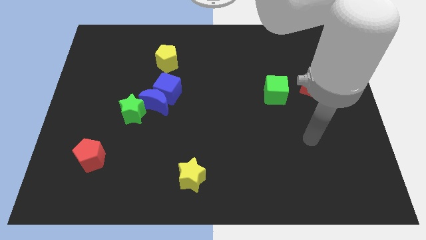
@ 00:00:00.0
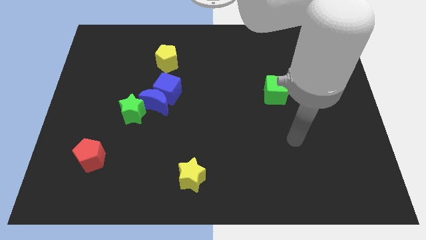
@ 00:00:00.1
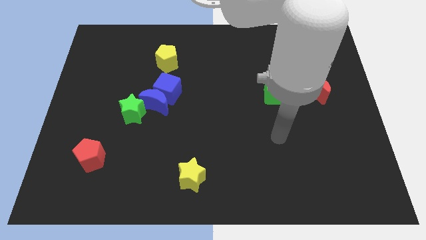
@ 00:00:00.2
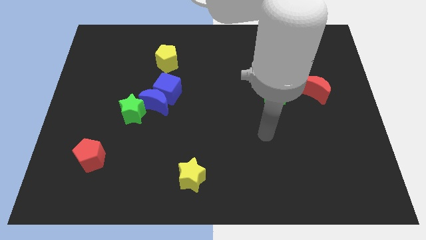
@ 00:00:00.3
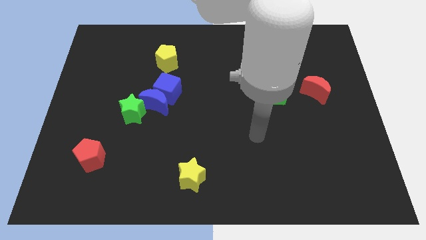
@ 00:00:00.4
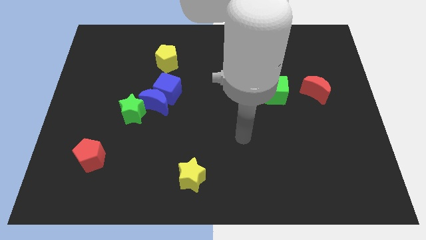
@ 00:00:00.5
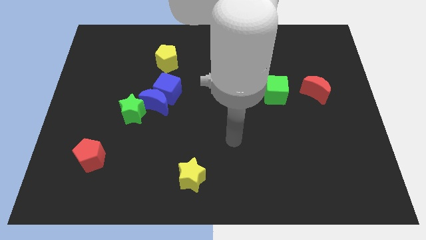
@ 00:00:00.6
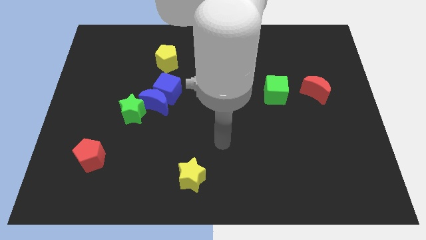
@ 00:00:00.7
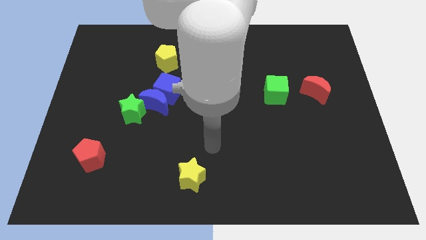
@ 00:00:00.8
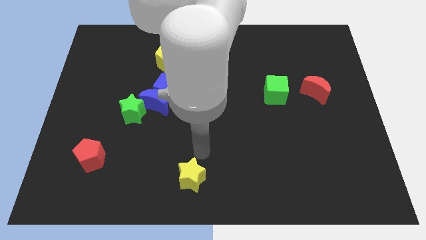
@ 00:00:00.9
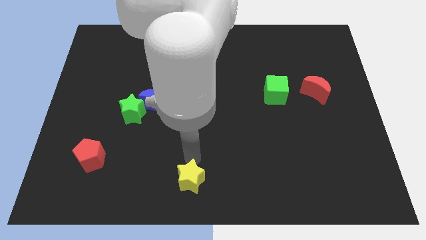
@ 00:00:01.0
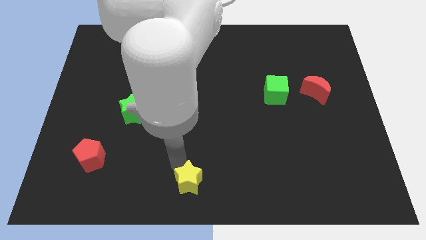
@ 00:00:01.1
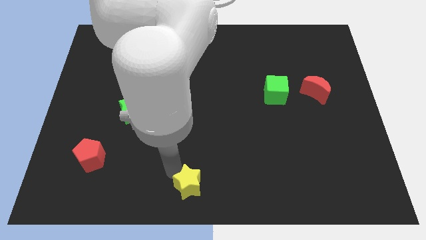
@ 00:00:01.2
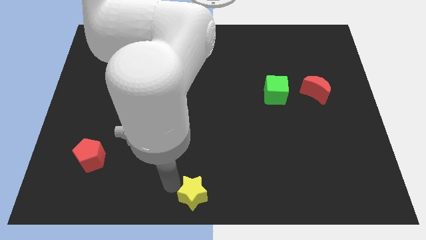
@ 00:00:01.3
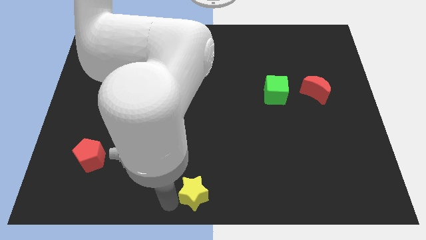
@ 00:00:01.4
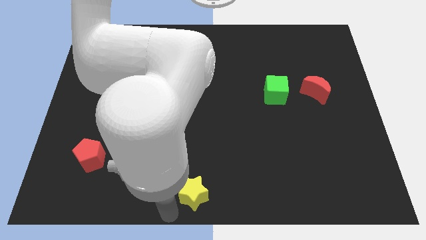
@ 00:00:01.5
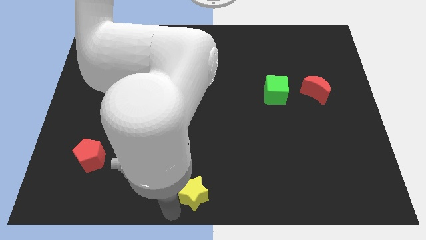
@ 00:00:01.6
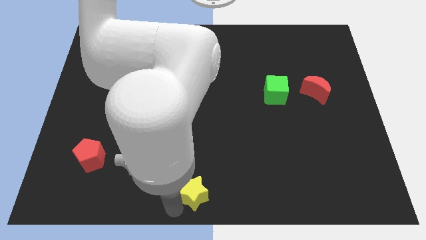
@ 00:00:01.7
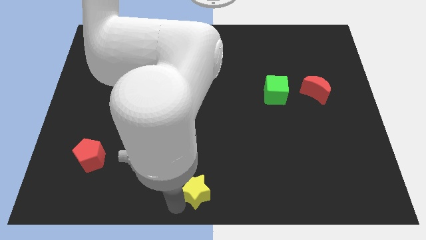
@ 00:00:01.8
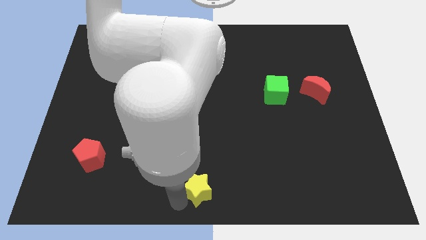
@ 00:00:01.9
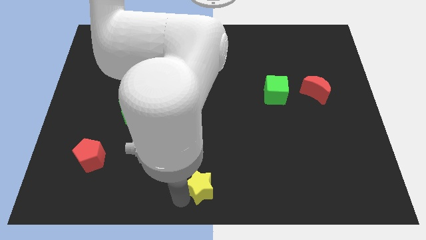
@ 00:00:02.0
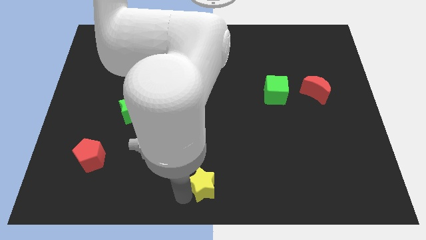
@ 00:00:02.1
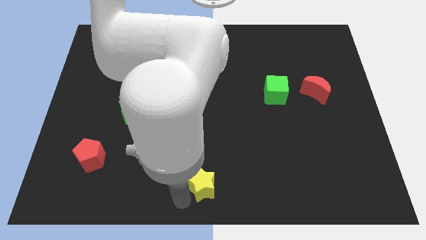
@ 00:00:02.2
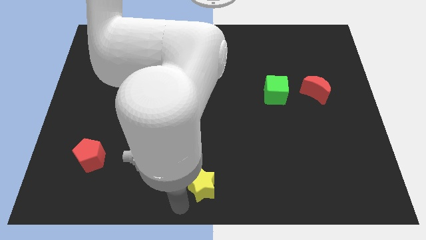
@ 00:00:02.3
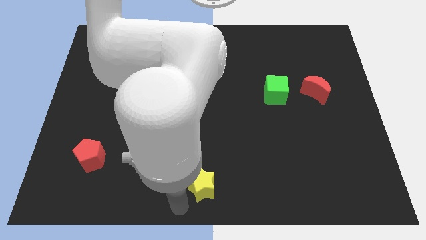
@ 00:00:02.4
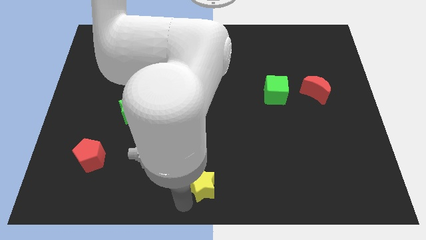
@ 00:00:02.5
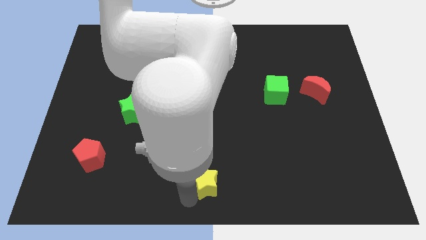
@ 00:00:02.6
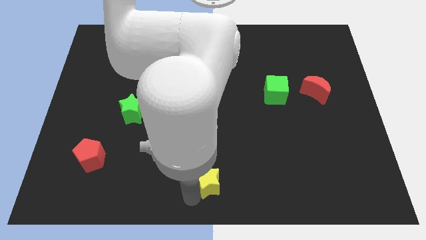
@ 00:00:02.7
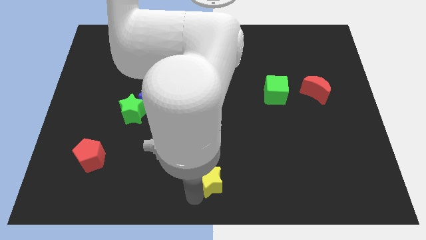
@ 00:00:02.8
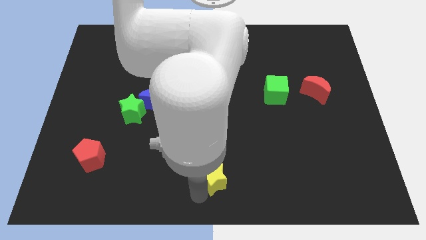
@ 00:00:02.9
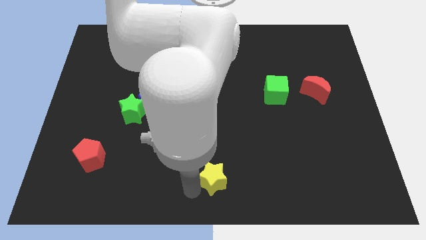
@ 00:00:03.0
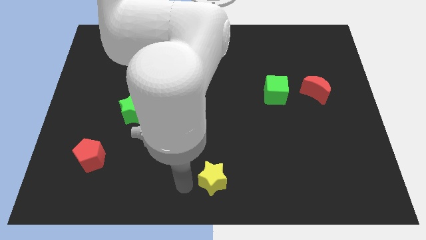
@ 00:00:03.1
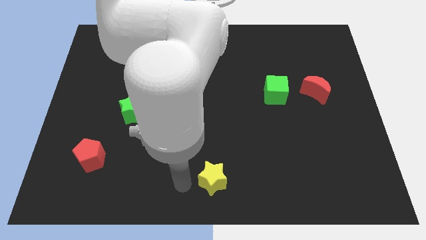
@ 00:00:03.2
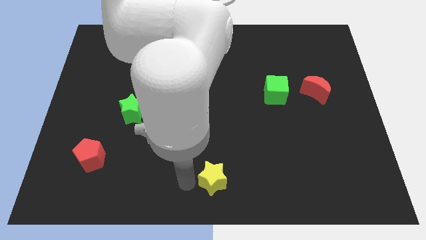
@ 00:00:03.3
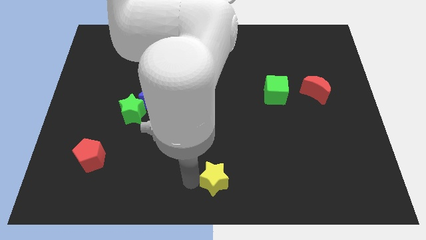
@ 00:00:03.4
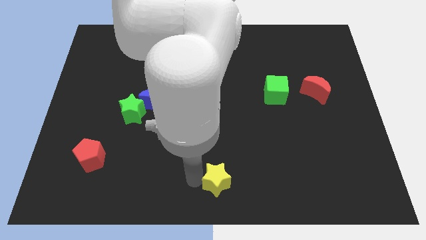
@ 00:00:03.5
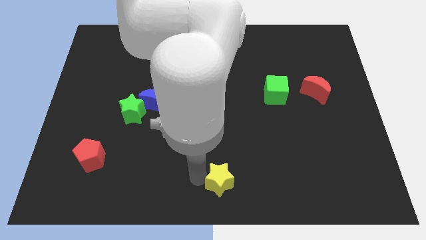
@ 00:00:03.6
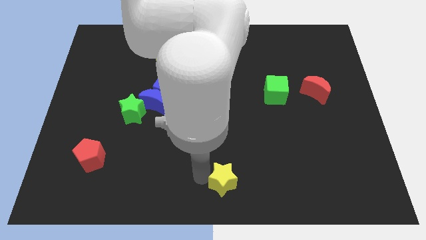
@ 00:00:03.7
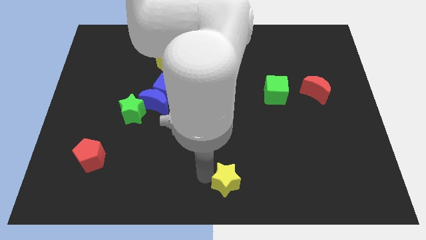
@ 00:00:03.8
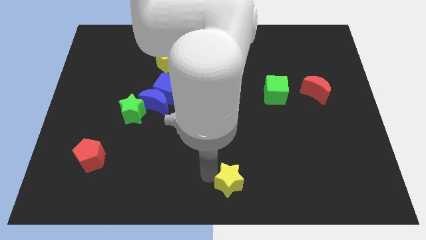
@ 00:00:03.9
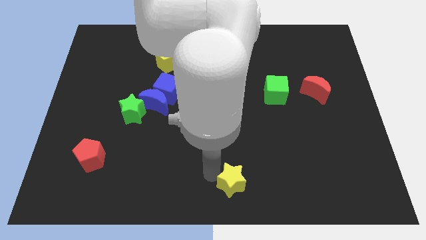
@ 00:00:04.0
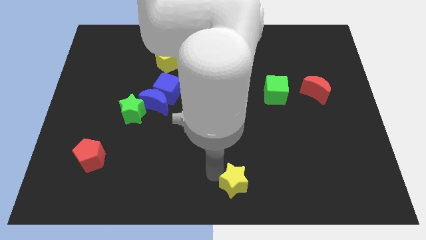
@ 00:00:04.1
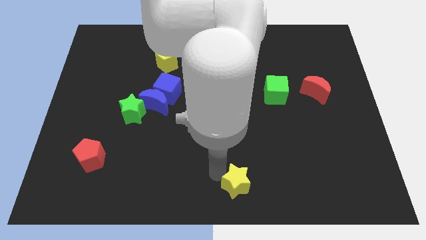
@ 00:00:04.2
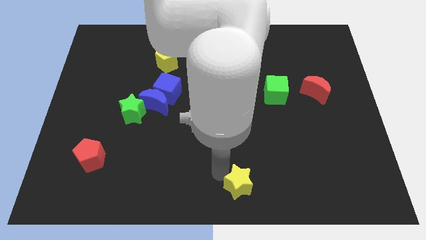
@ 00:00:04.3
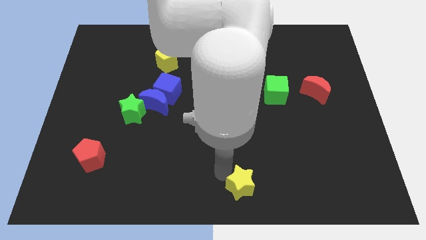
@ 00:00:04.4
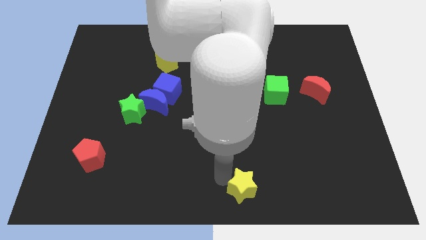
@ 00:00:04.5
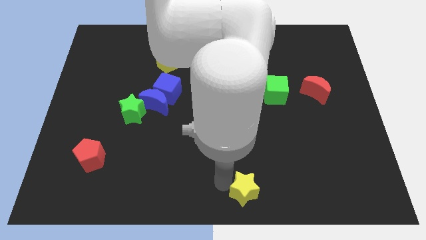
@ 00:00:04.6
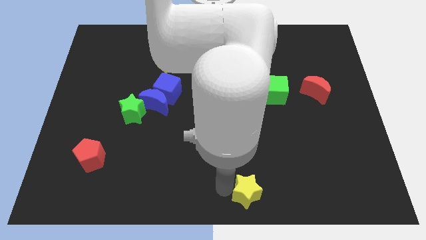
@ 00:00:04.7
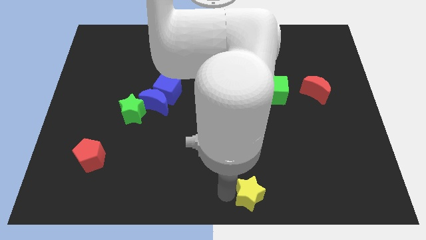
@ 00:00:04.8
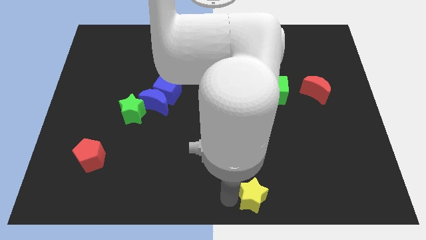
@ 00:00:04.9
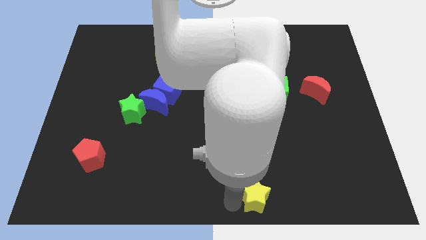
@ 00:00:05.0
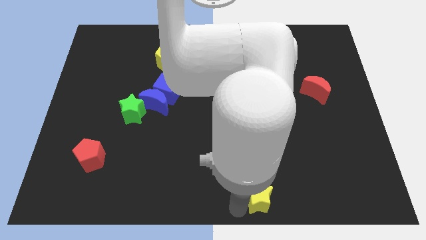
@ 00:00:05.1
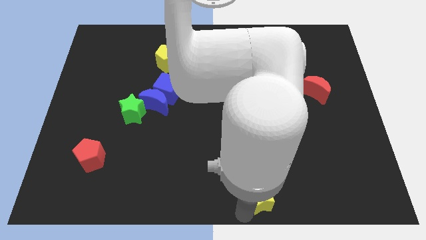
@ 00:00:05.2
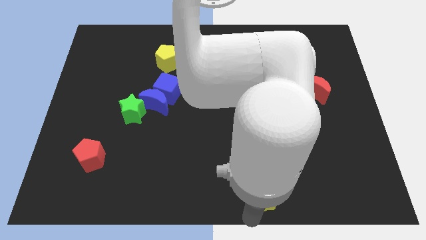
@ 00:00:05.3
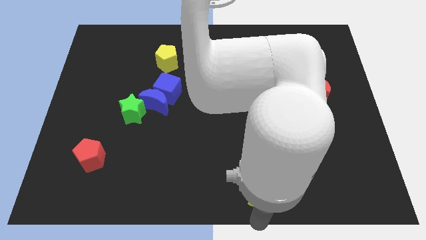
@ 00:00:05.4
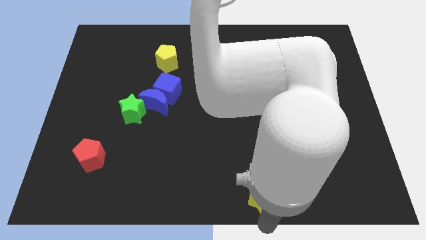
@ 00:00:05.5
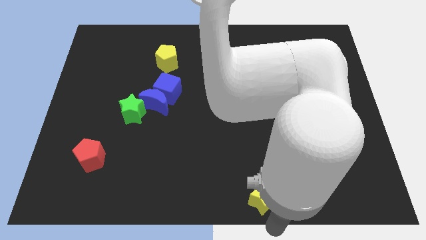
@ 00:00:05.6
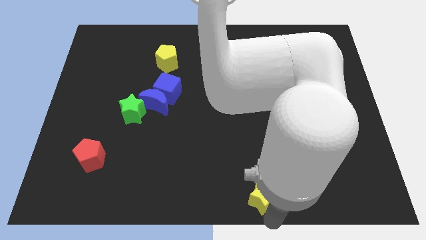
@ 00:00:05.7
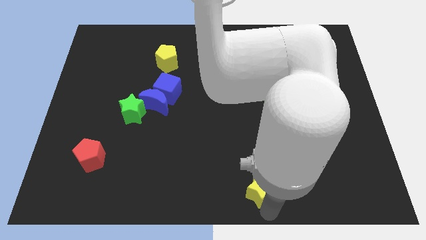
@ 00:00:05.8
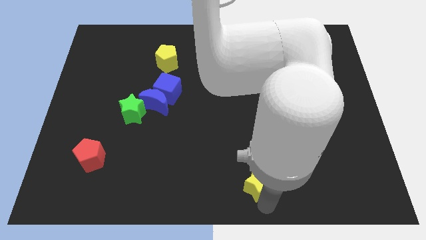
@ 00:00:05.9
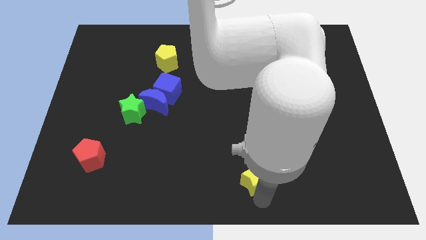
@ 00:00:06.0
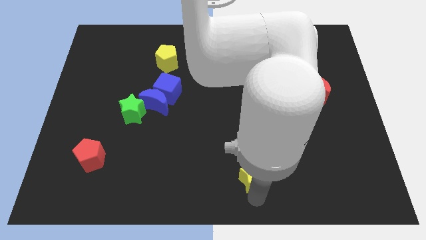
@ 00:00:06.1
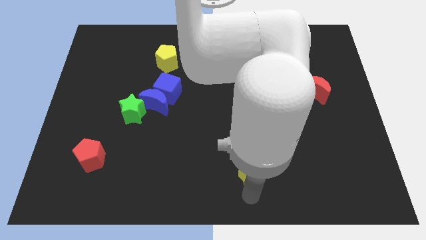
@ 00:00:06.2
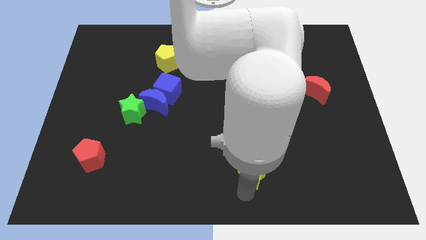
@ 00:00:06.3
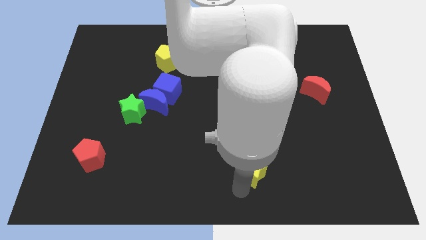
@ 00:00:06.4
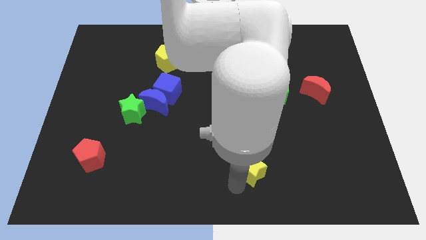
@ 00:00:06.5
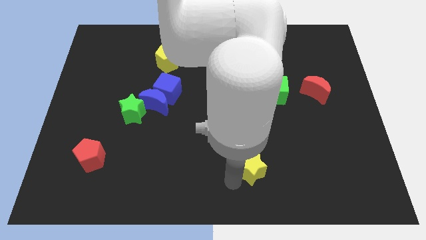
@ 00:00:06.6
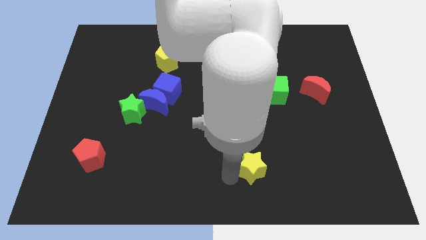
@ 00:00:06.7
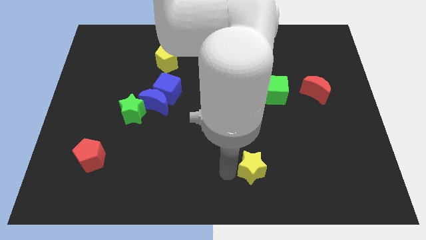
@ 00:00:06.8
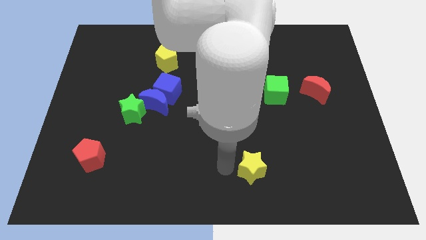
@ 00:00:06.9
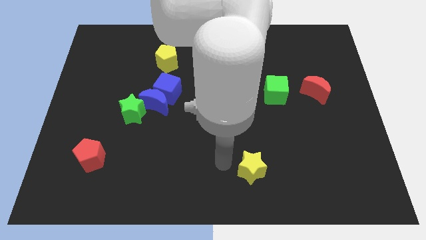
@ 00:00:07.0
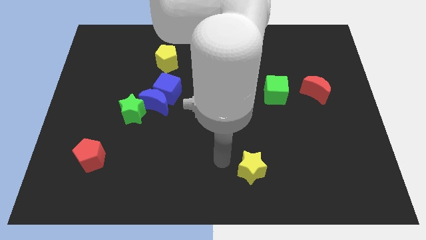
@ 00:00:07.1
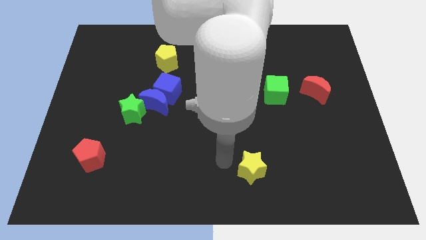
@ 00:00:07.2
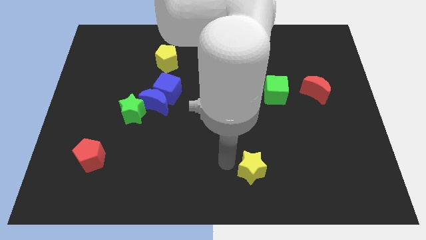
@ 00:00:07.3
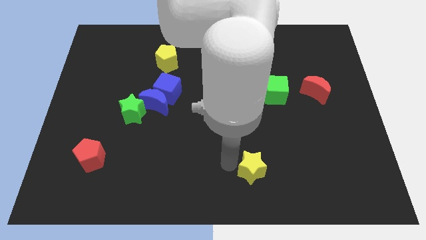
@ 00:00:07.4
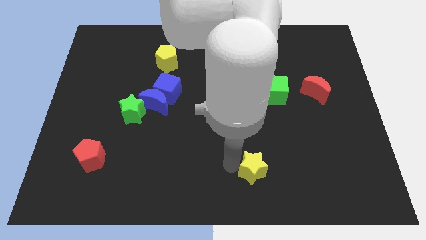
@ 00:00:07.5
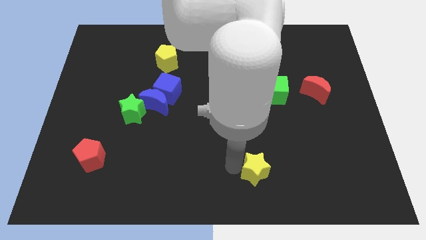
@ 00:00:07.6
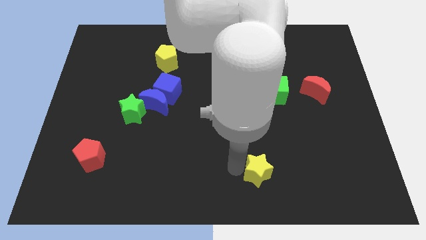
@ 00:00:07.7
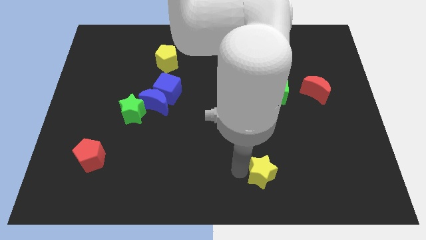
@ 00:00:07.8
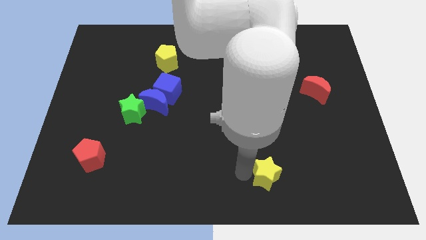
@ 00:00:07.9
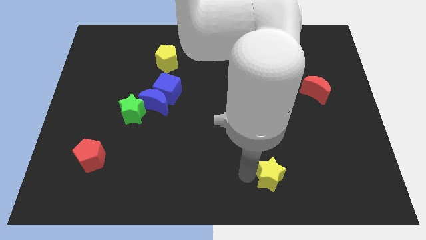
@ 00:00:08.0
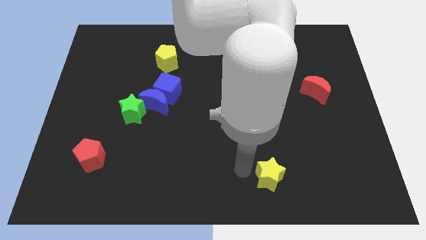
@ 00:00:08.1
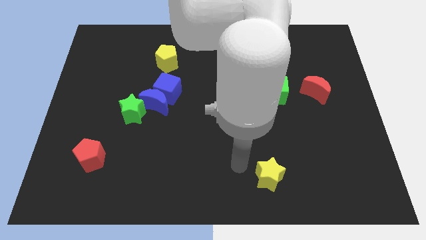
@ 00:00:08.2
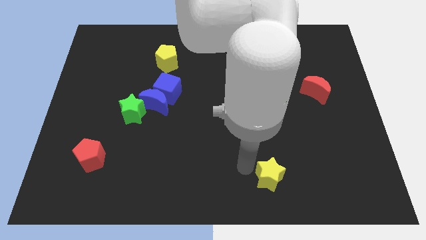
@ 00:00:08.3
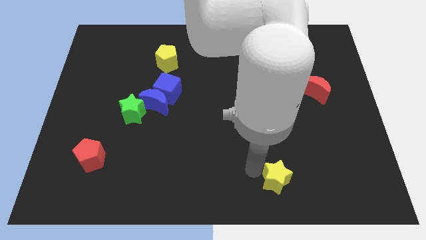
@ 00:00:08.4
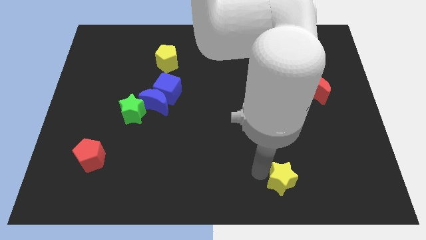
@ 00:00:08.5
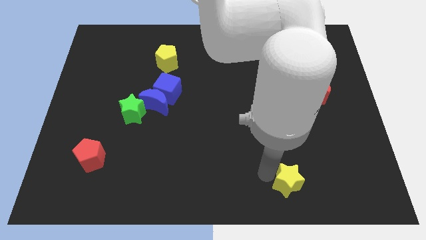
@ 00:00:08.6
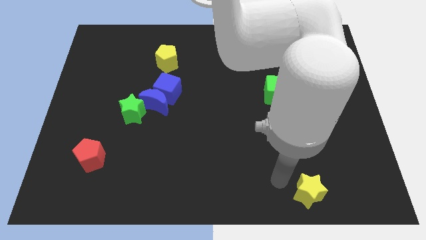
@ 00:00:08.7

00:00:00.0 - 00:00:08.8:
slide the yellow star right
